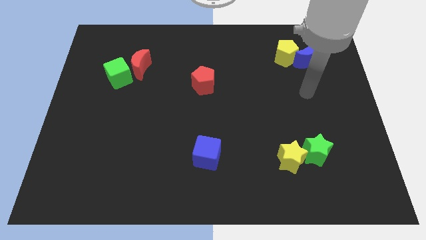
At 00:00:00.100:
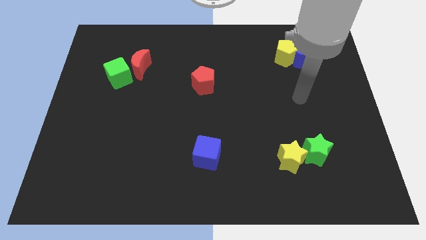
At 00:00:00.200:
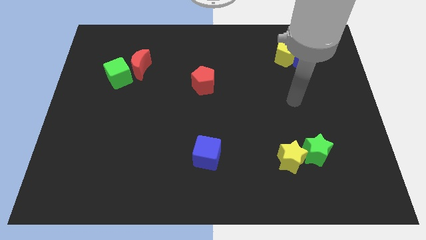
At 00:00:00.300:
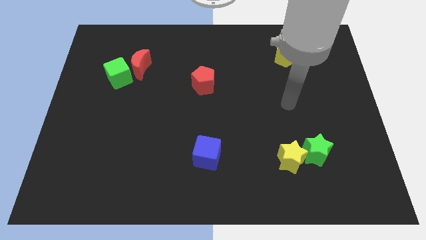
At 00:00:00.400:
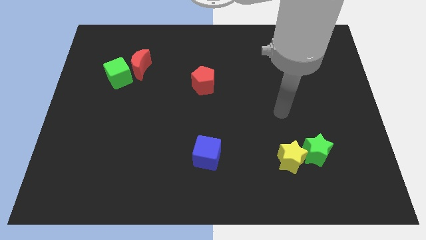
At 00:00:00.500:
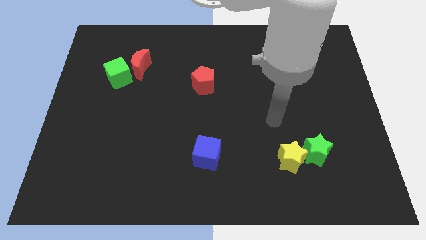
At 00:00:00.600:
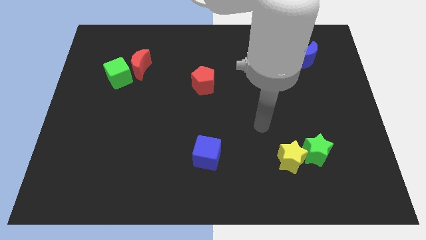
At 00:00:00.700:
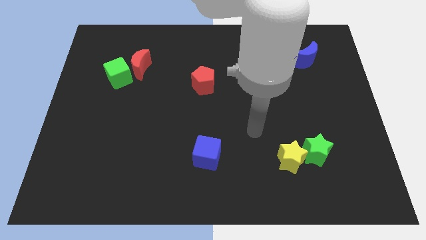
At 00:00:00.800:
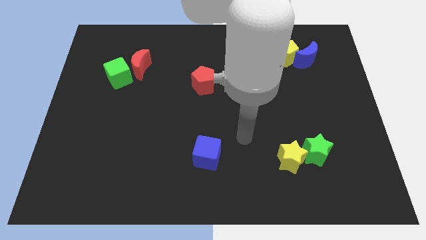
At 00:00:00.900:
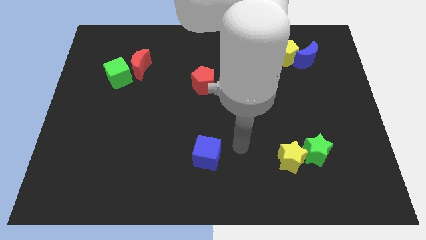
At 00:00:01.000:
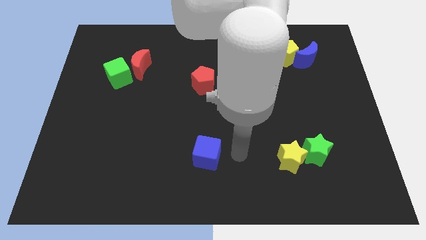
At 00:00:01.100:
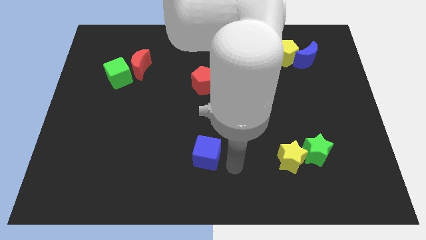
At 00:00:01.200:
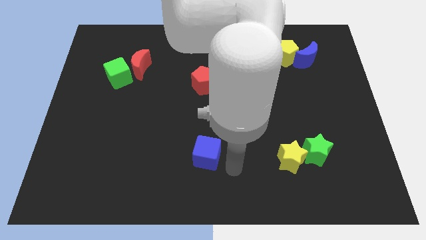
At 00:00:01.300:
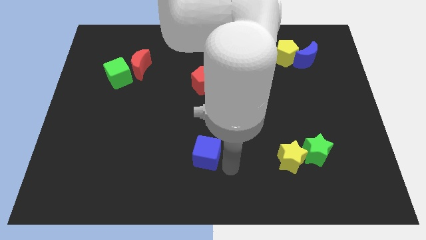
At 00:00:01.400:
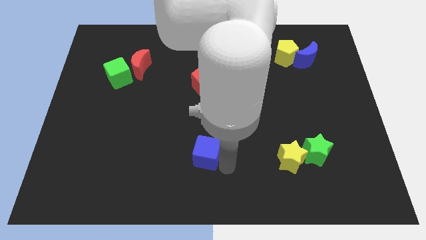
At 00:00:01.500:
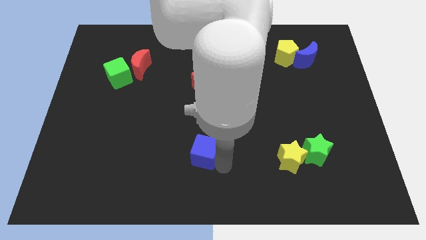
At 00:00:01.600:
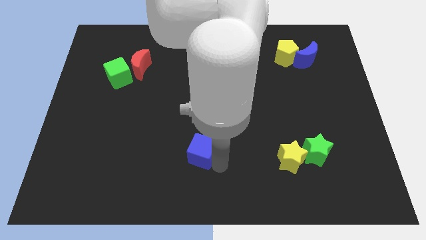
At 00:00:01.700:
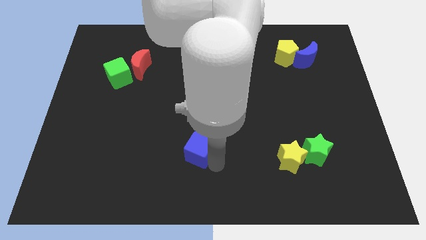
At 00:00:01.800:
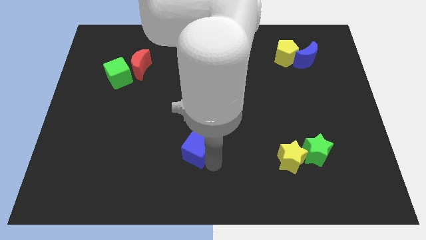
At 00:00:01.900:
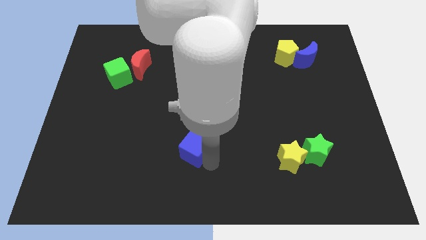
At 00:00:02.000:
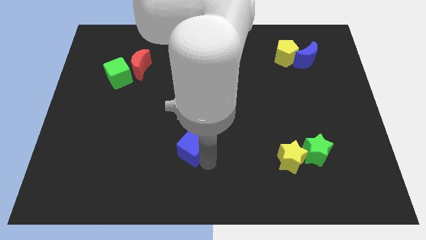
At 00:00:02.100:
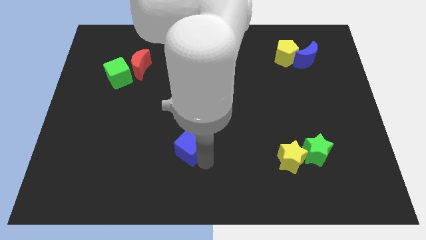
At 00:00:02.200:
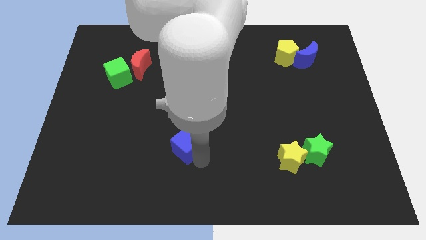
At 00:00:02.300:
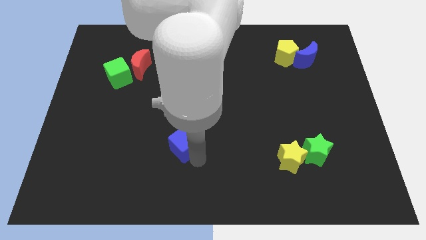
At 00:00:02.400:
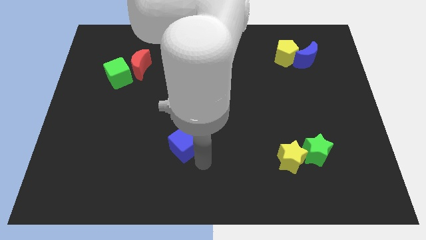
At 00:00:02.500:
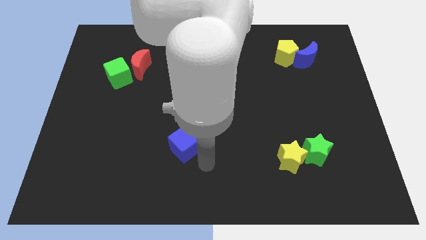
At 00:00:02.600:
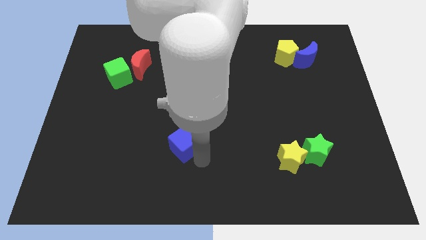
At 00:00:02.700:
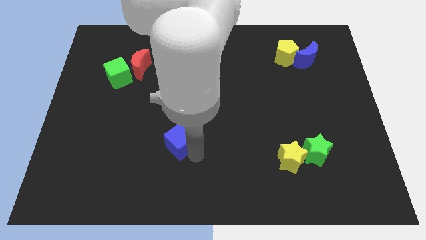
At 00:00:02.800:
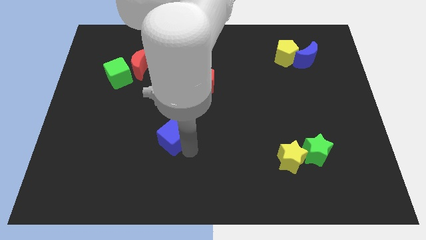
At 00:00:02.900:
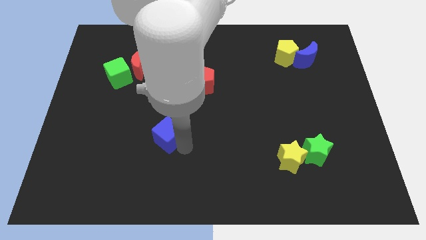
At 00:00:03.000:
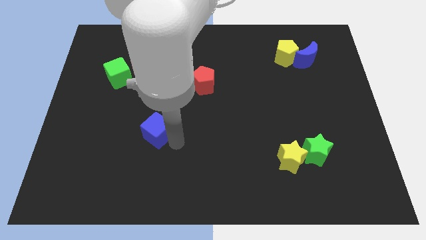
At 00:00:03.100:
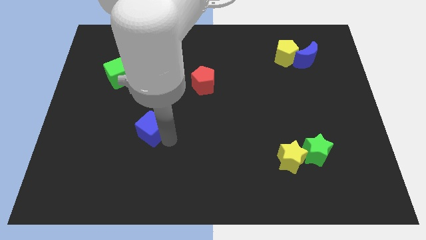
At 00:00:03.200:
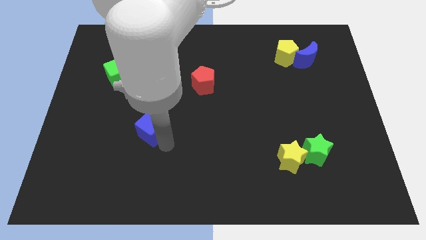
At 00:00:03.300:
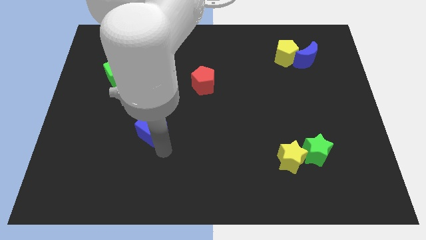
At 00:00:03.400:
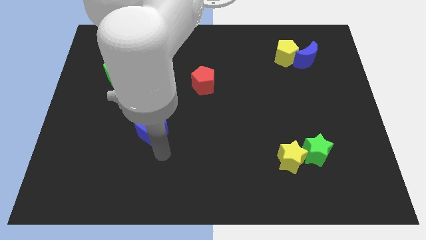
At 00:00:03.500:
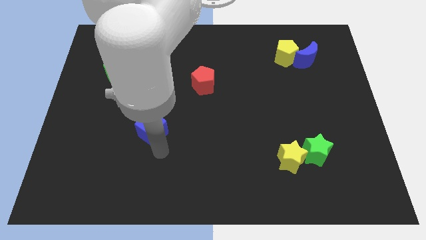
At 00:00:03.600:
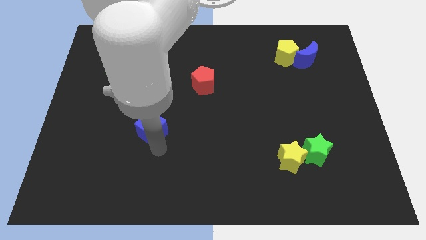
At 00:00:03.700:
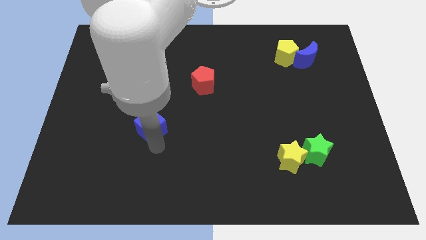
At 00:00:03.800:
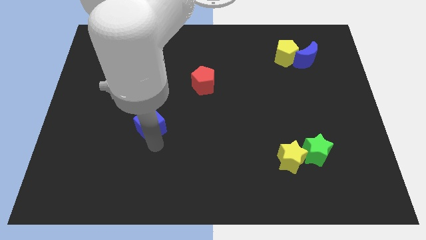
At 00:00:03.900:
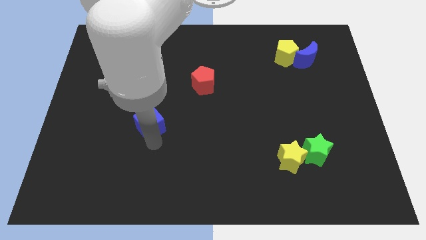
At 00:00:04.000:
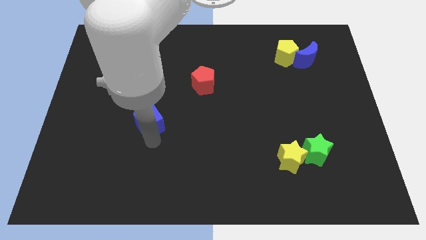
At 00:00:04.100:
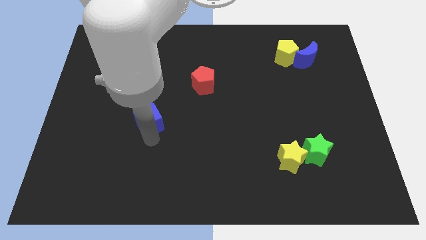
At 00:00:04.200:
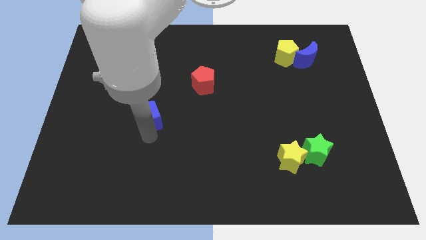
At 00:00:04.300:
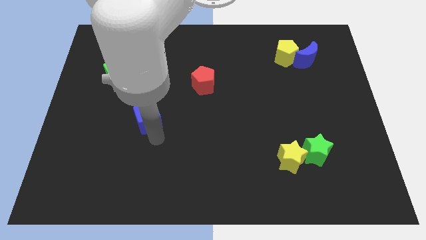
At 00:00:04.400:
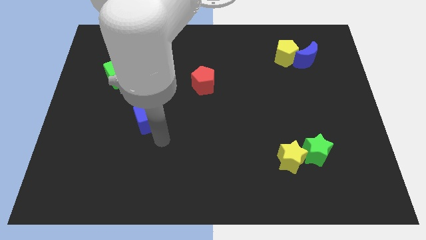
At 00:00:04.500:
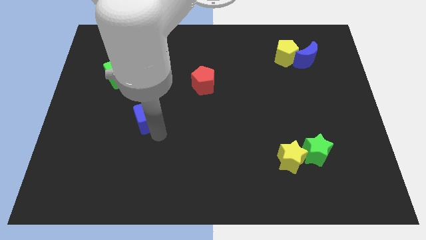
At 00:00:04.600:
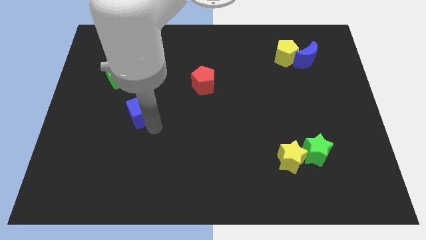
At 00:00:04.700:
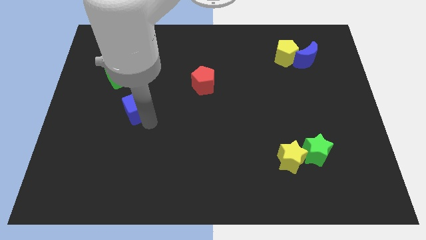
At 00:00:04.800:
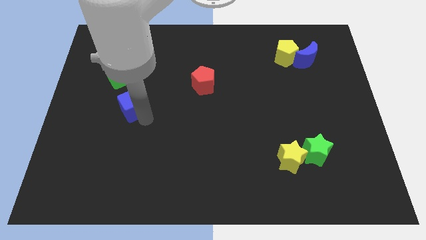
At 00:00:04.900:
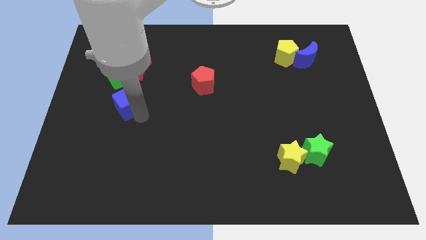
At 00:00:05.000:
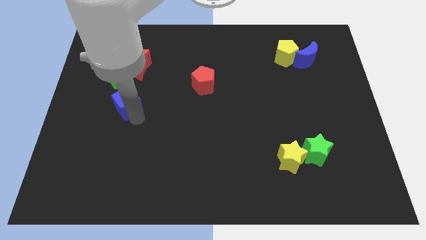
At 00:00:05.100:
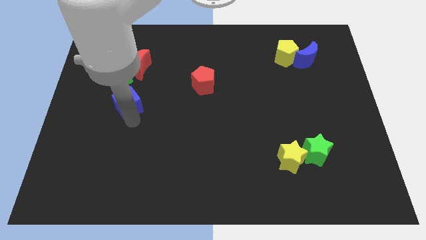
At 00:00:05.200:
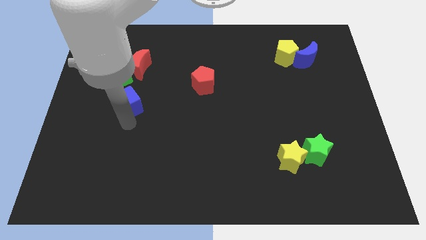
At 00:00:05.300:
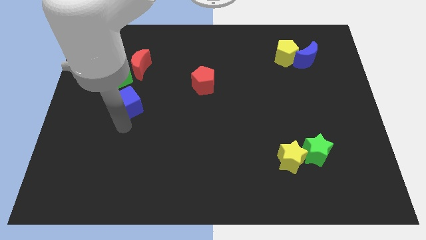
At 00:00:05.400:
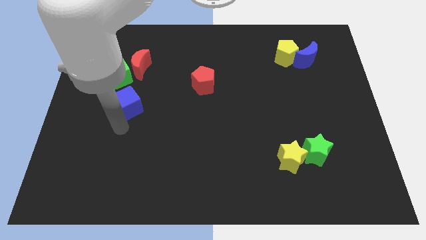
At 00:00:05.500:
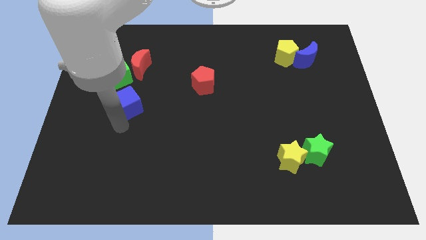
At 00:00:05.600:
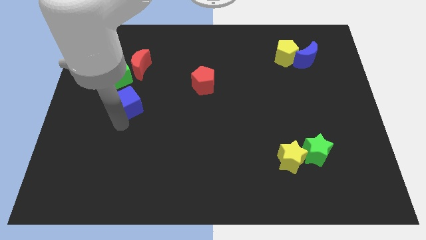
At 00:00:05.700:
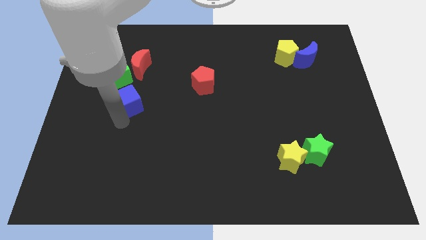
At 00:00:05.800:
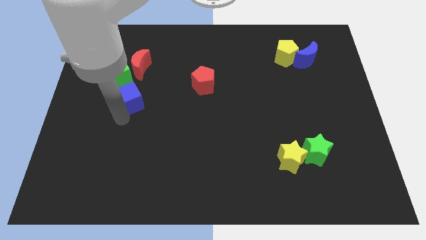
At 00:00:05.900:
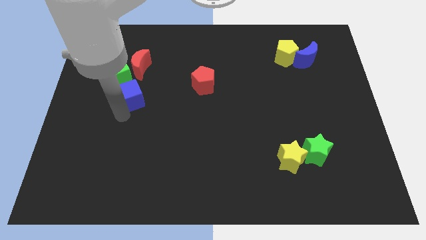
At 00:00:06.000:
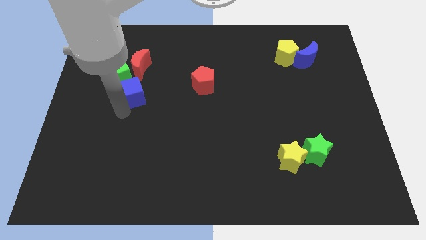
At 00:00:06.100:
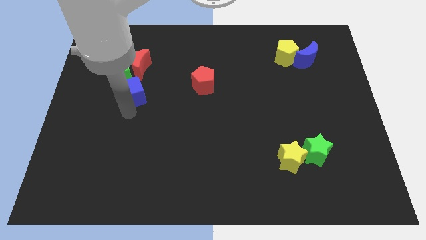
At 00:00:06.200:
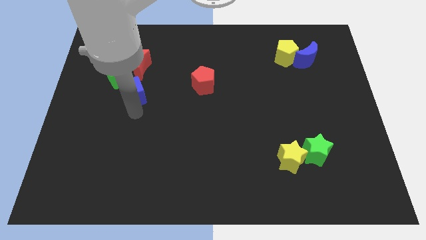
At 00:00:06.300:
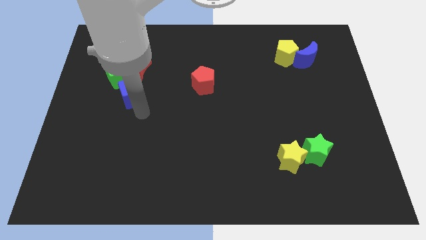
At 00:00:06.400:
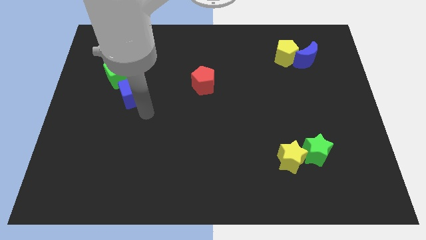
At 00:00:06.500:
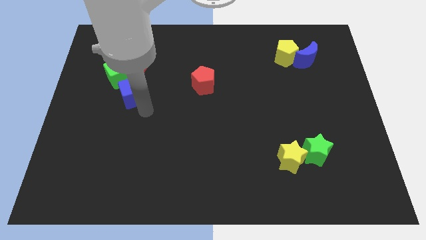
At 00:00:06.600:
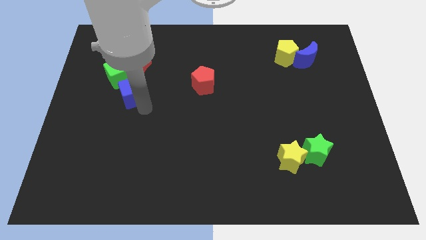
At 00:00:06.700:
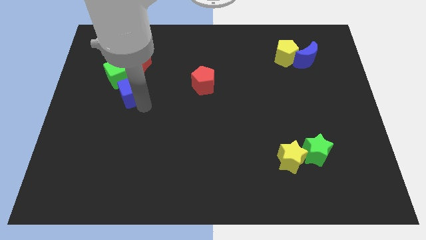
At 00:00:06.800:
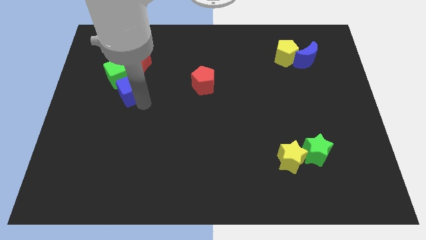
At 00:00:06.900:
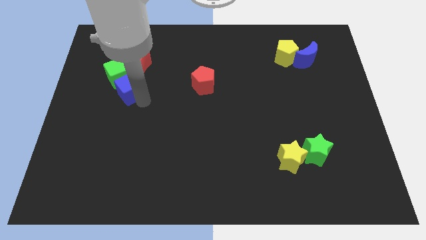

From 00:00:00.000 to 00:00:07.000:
move the blue cube close to the green cube

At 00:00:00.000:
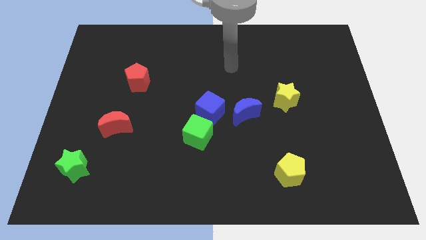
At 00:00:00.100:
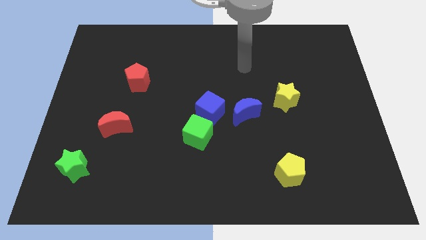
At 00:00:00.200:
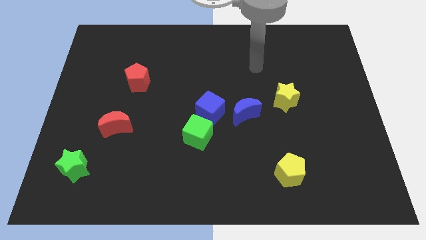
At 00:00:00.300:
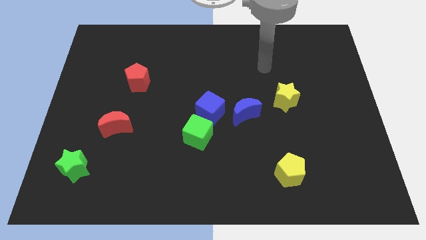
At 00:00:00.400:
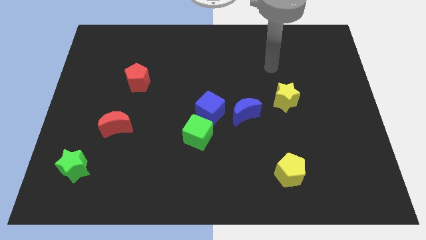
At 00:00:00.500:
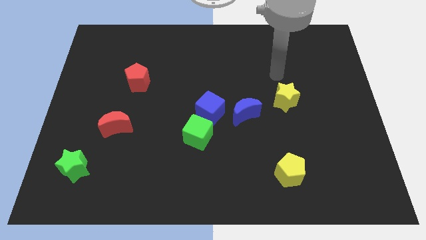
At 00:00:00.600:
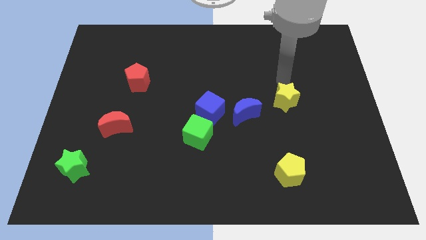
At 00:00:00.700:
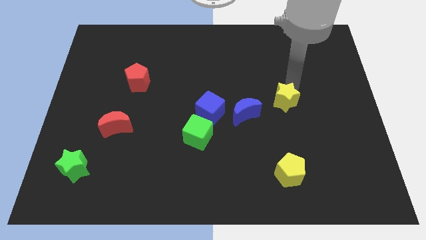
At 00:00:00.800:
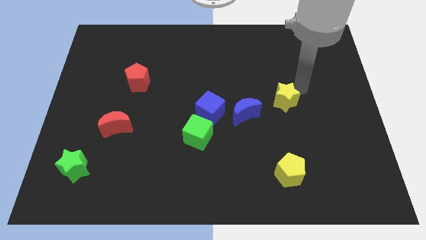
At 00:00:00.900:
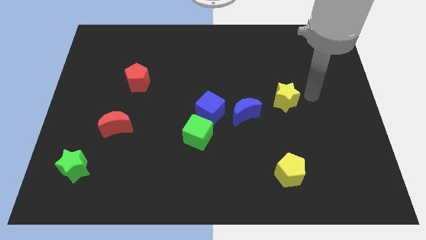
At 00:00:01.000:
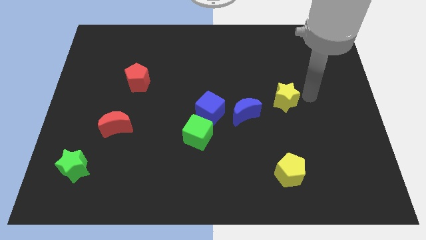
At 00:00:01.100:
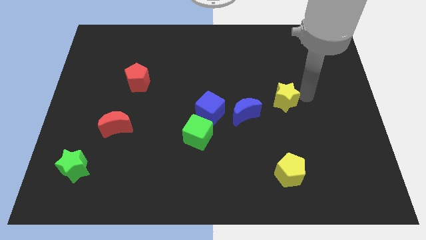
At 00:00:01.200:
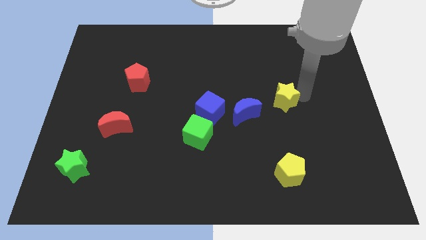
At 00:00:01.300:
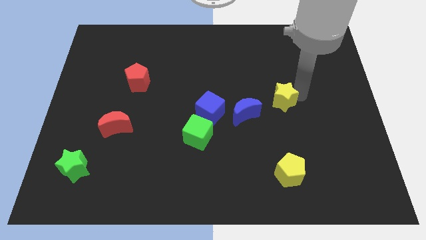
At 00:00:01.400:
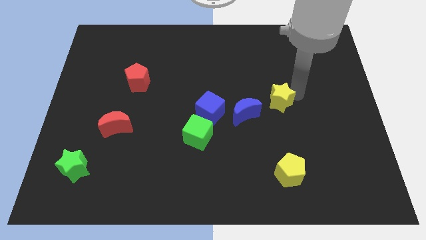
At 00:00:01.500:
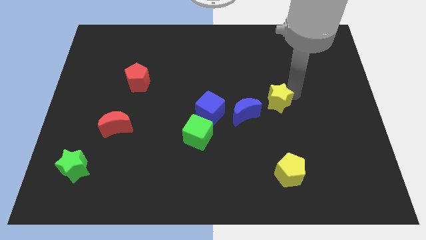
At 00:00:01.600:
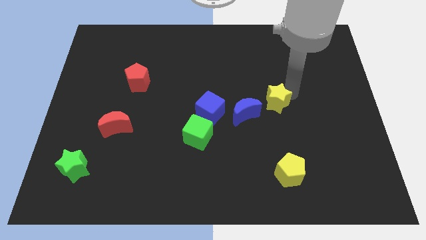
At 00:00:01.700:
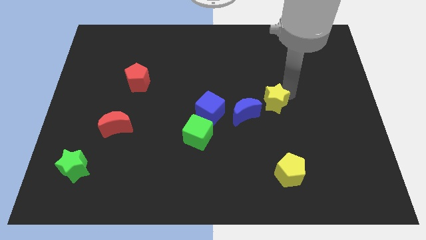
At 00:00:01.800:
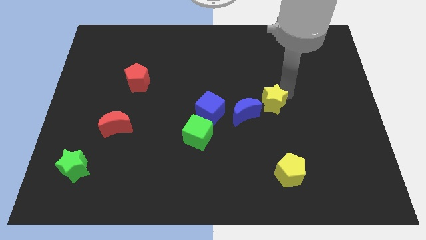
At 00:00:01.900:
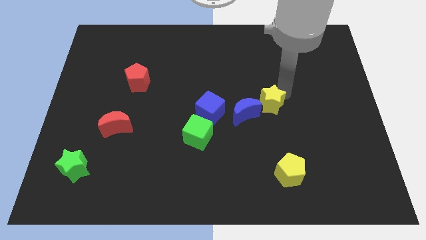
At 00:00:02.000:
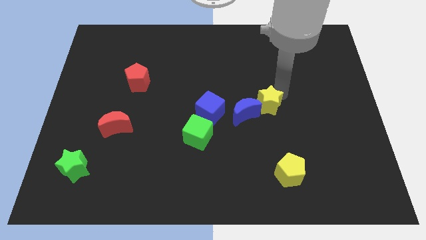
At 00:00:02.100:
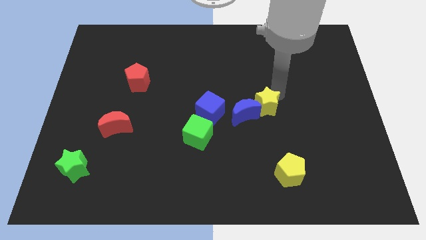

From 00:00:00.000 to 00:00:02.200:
push the yellow star to the blue moon
